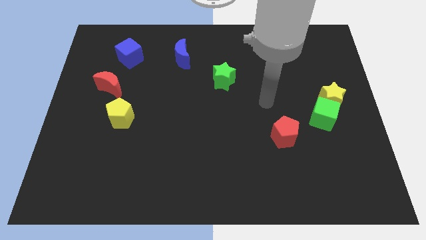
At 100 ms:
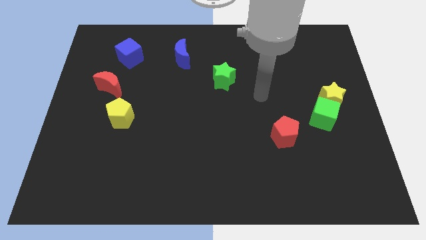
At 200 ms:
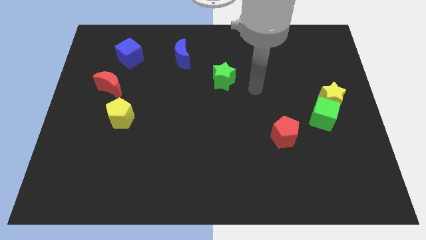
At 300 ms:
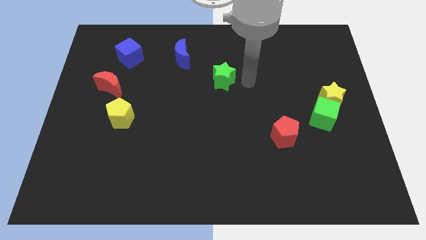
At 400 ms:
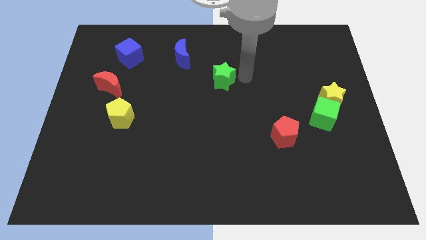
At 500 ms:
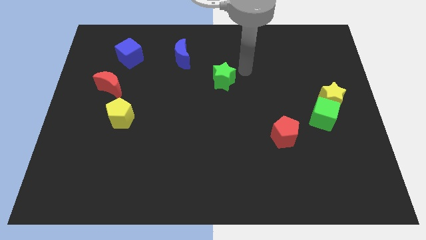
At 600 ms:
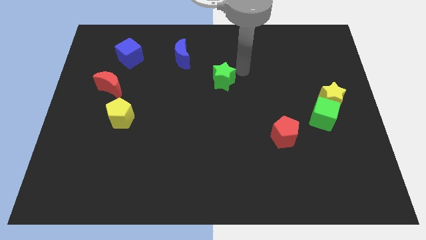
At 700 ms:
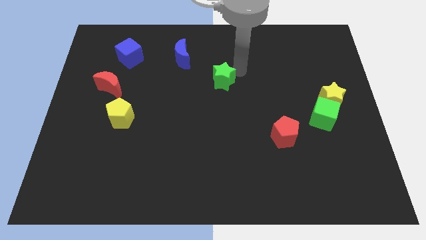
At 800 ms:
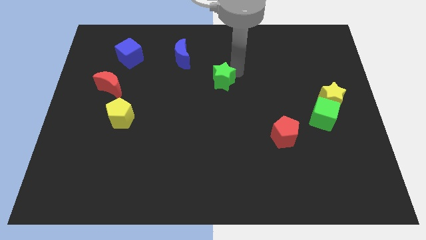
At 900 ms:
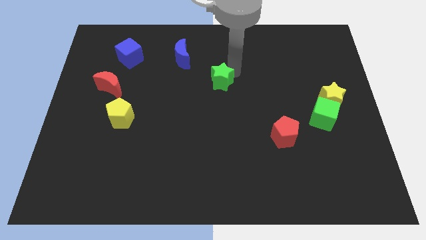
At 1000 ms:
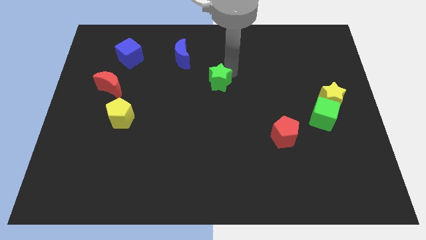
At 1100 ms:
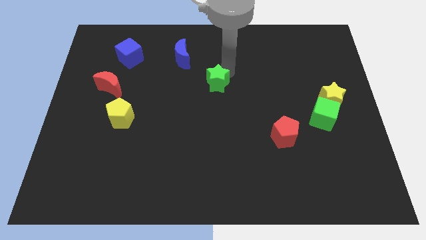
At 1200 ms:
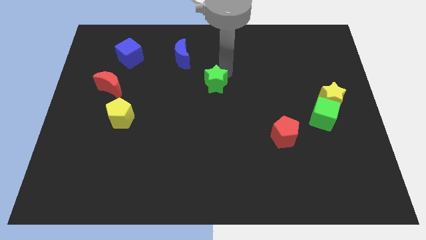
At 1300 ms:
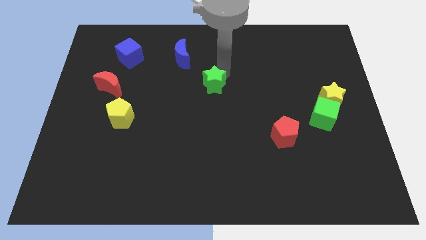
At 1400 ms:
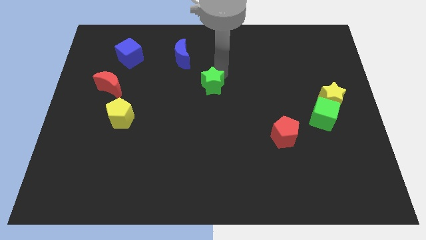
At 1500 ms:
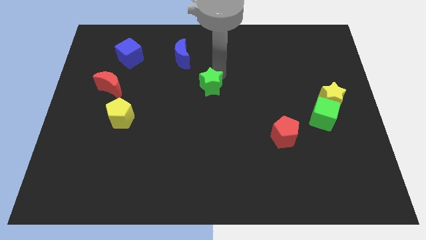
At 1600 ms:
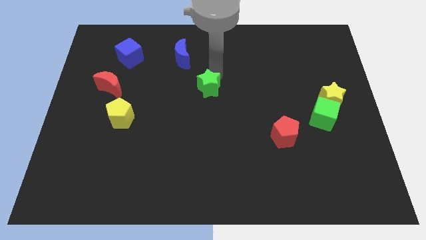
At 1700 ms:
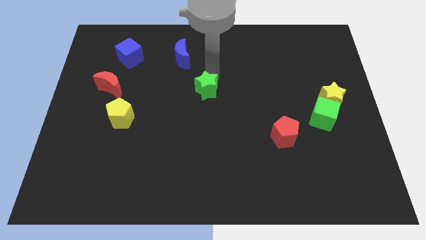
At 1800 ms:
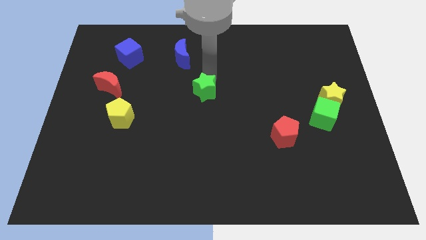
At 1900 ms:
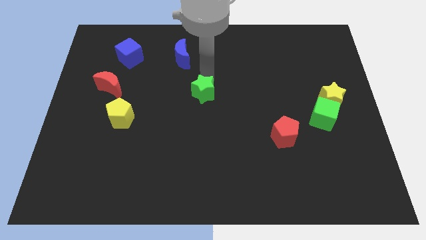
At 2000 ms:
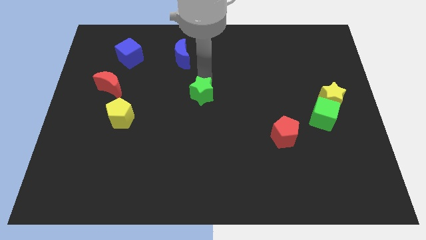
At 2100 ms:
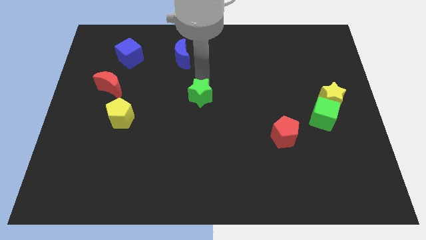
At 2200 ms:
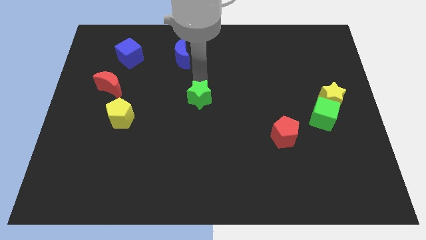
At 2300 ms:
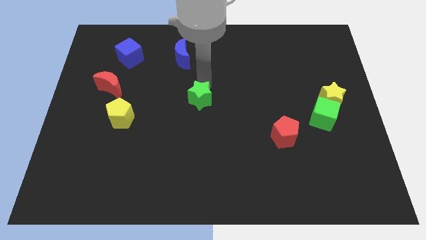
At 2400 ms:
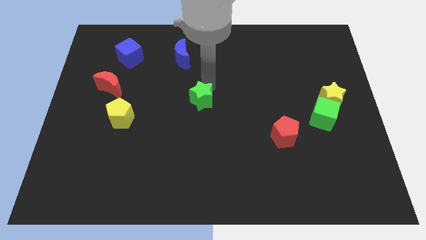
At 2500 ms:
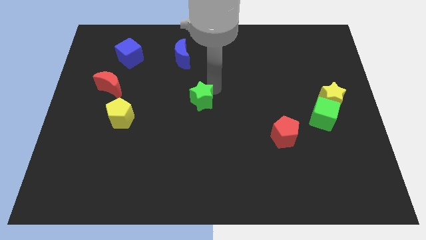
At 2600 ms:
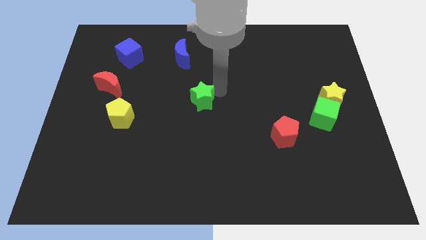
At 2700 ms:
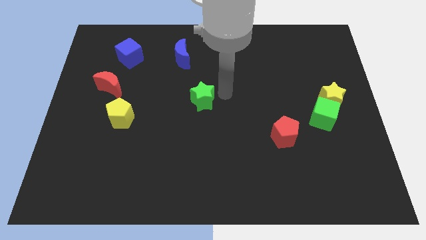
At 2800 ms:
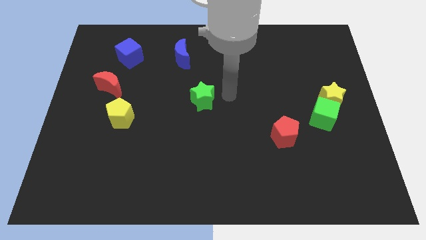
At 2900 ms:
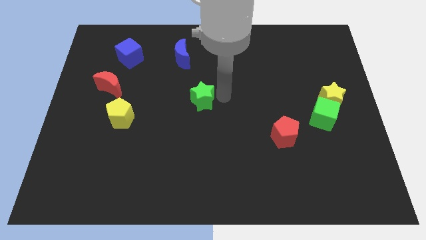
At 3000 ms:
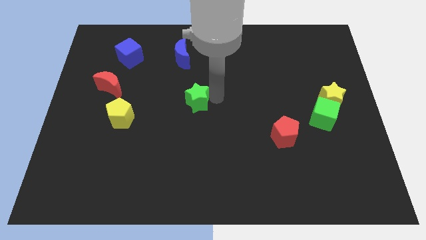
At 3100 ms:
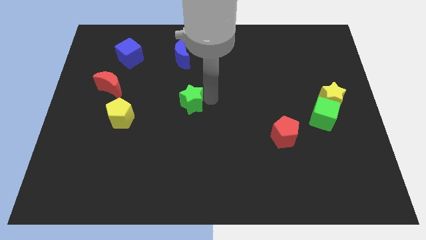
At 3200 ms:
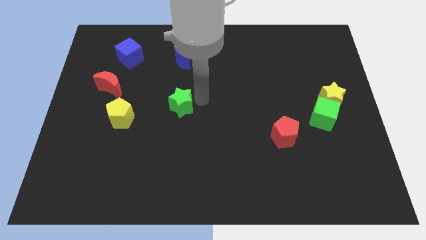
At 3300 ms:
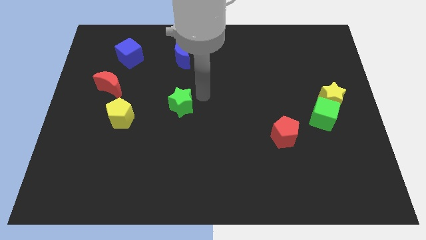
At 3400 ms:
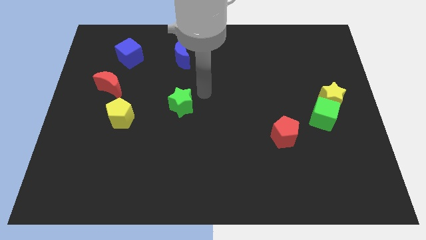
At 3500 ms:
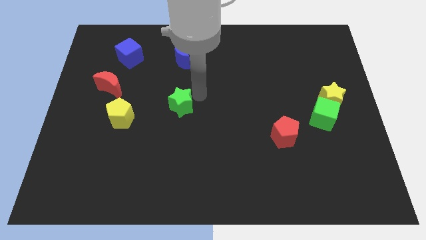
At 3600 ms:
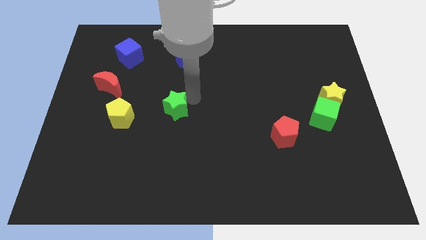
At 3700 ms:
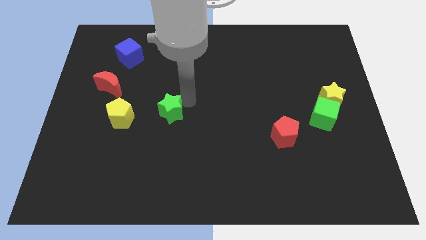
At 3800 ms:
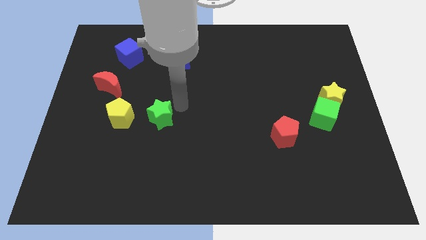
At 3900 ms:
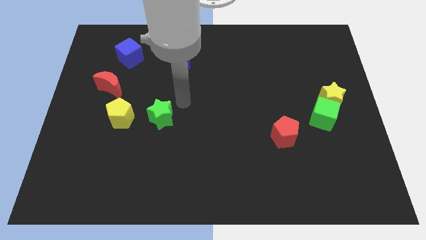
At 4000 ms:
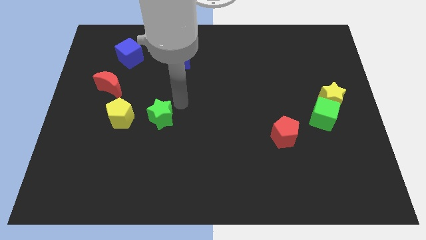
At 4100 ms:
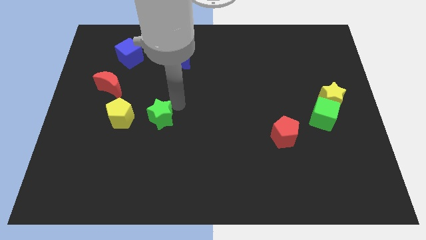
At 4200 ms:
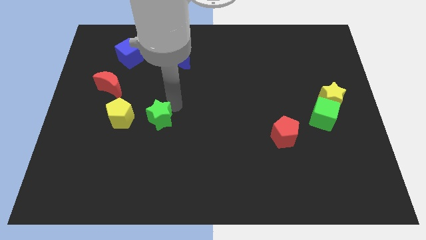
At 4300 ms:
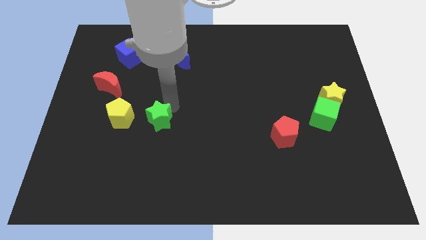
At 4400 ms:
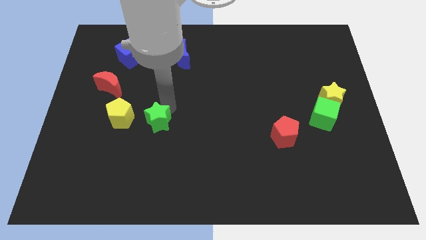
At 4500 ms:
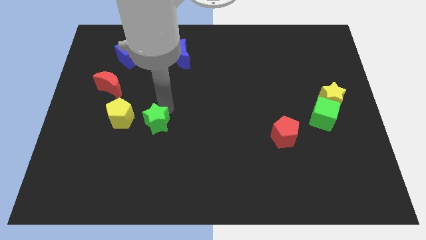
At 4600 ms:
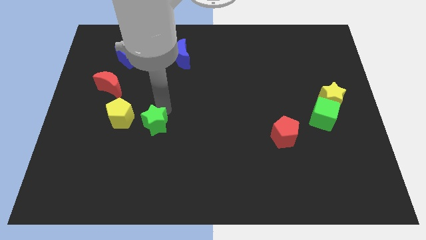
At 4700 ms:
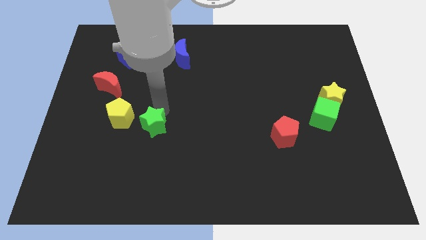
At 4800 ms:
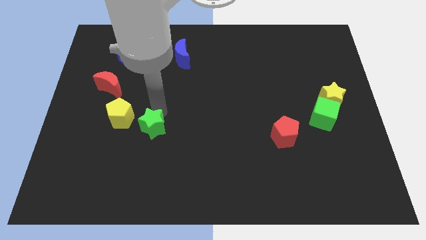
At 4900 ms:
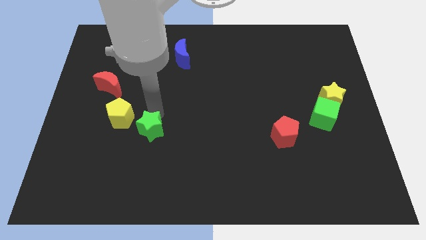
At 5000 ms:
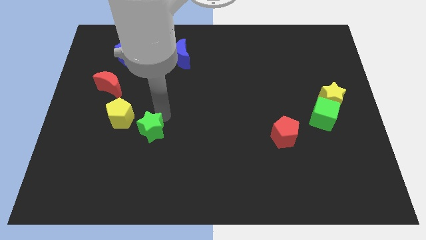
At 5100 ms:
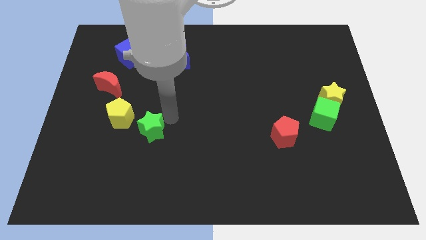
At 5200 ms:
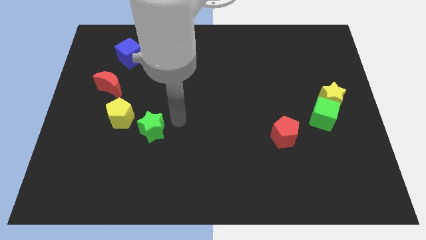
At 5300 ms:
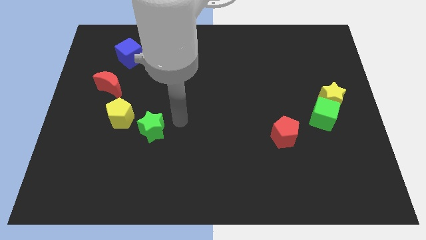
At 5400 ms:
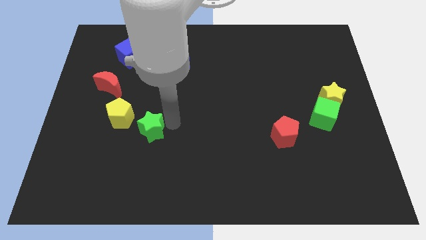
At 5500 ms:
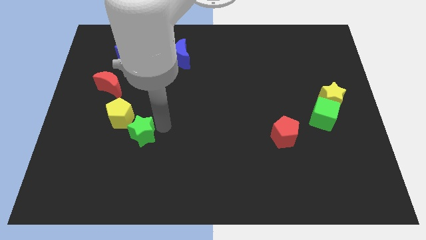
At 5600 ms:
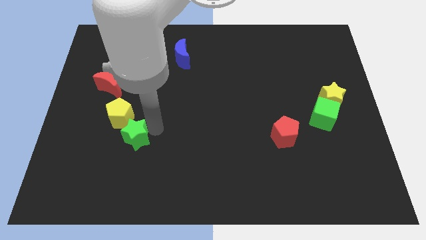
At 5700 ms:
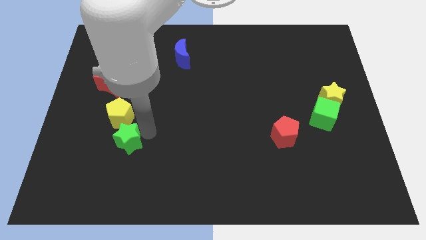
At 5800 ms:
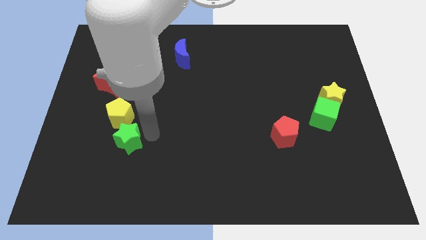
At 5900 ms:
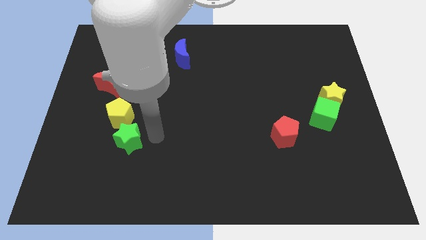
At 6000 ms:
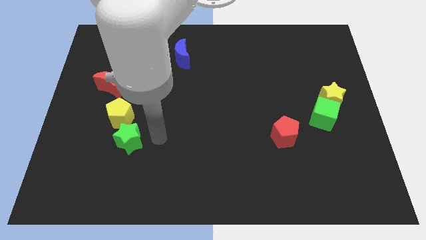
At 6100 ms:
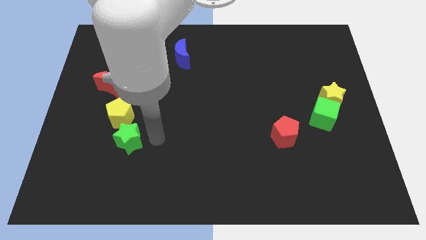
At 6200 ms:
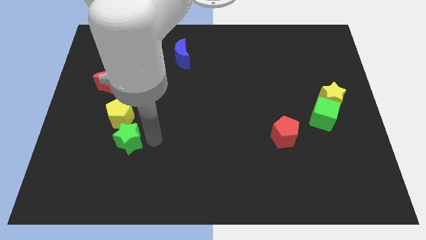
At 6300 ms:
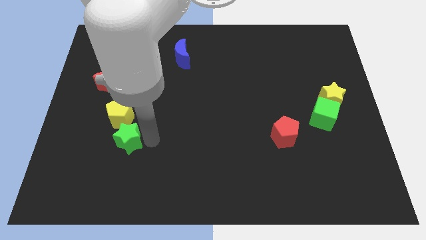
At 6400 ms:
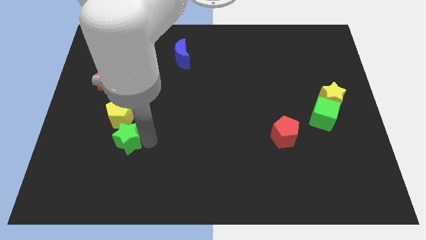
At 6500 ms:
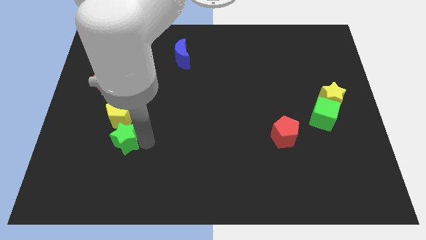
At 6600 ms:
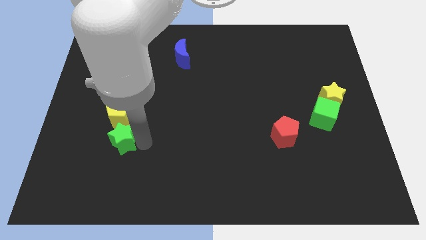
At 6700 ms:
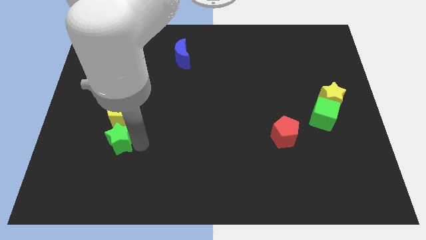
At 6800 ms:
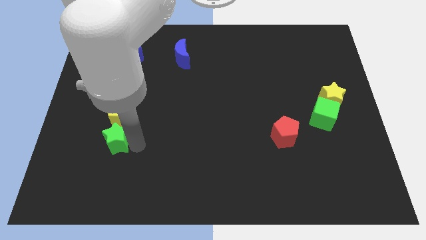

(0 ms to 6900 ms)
move the green star diagonally down and to the left of the yellow pentagon

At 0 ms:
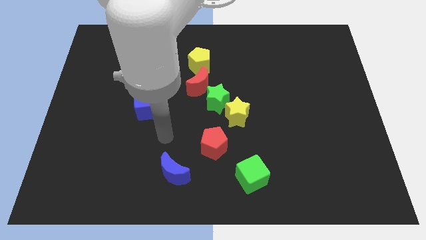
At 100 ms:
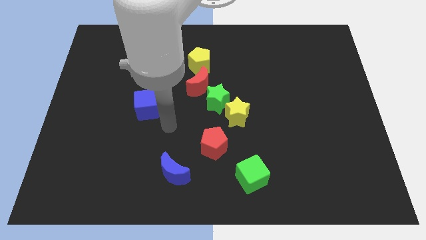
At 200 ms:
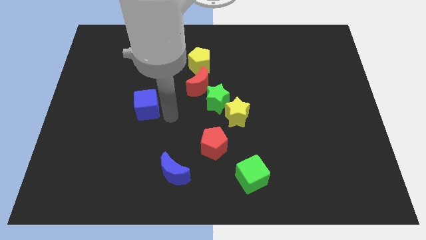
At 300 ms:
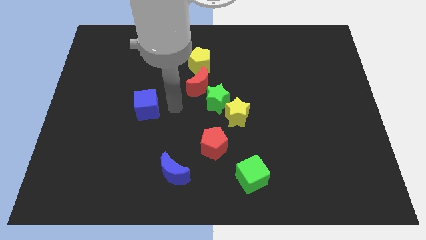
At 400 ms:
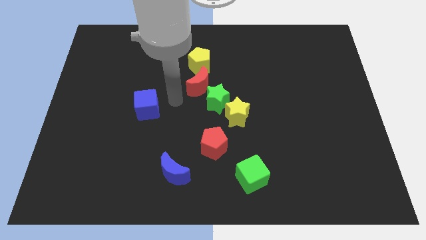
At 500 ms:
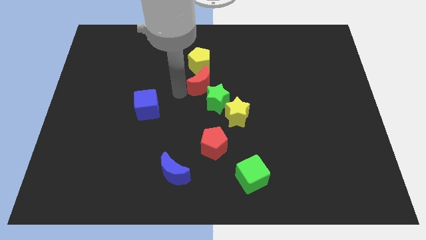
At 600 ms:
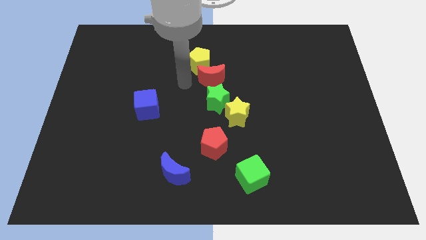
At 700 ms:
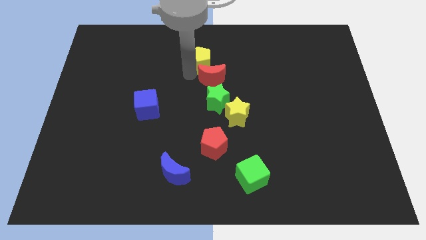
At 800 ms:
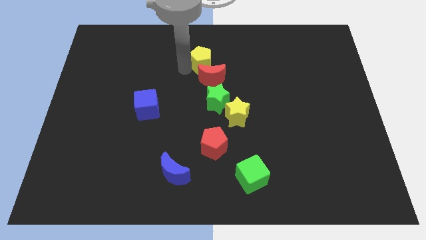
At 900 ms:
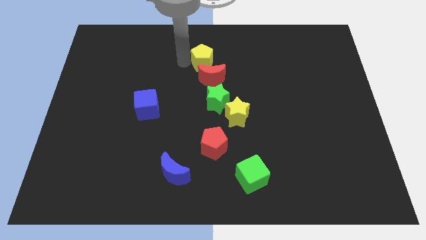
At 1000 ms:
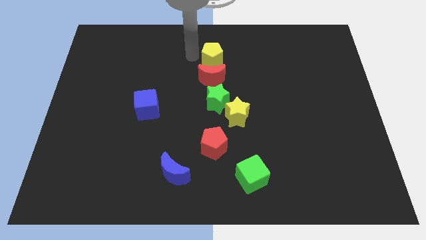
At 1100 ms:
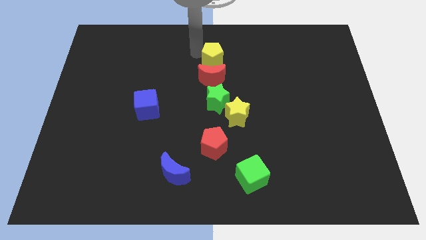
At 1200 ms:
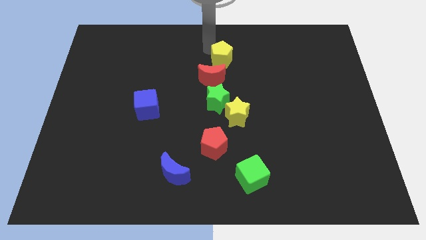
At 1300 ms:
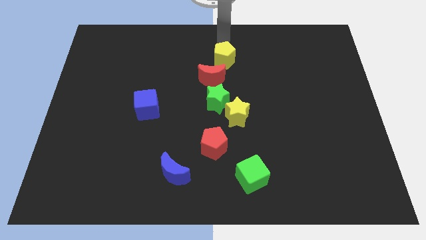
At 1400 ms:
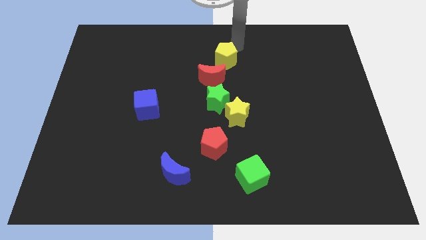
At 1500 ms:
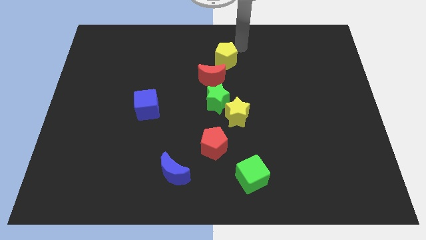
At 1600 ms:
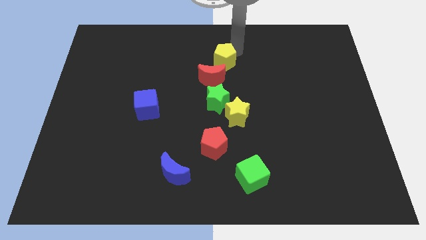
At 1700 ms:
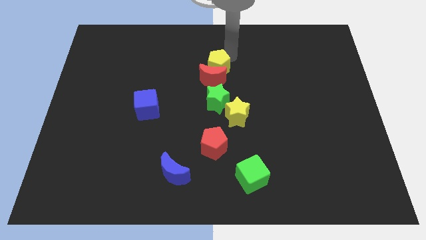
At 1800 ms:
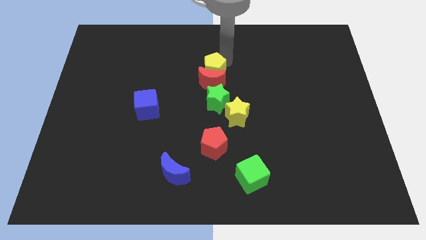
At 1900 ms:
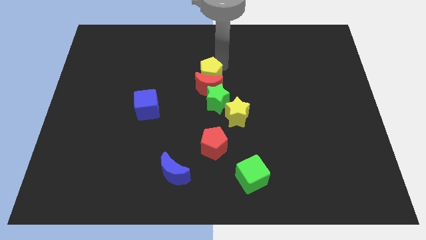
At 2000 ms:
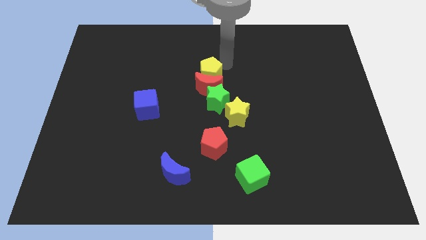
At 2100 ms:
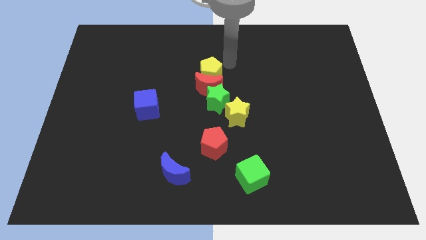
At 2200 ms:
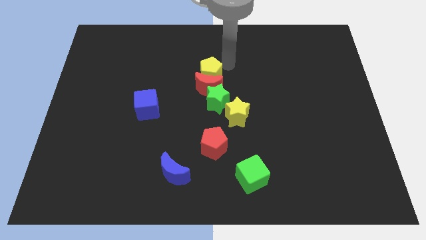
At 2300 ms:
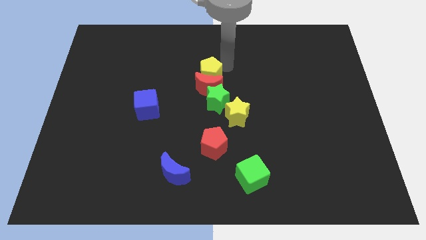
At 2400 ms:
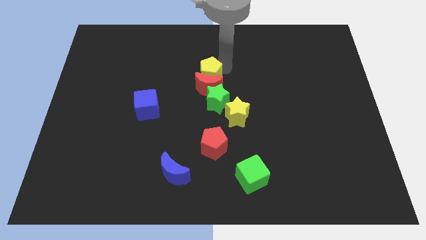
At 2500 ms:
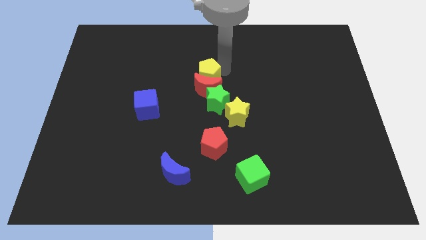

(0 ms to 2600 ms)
put the yellow pentagon to the top left side of the green star
